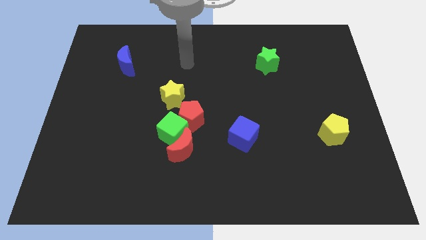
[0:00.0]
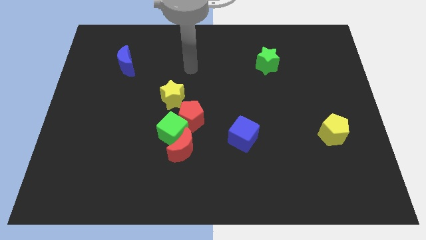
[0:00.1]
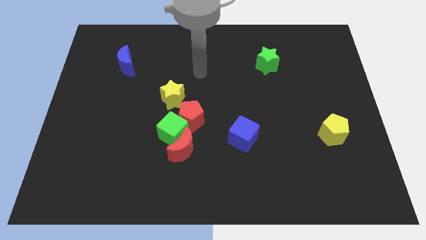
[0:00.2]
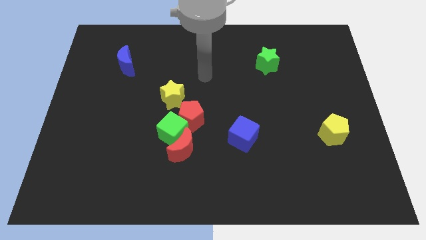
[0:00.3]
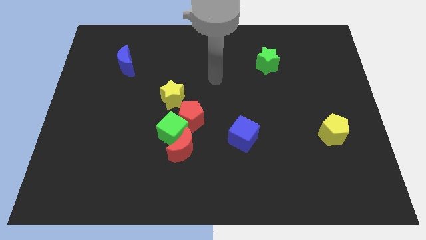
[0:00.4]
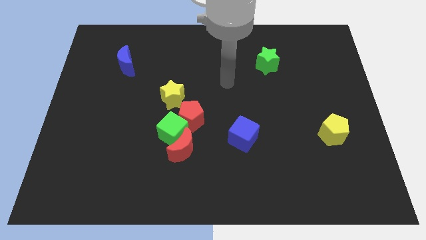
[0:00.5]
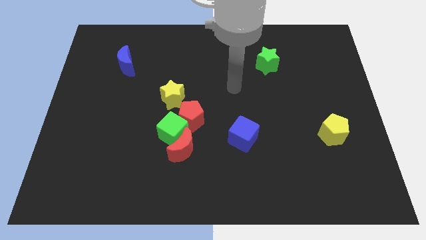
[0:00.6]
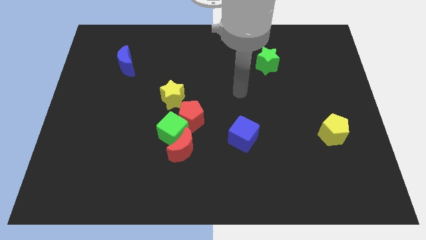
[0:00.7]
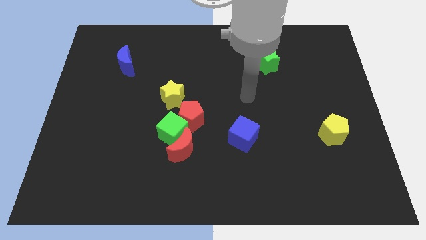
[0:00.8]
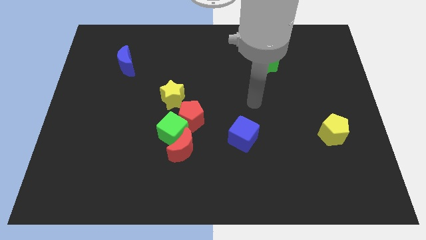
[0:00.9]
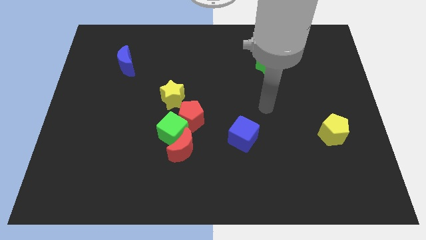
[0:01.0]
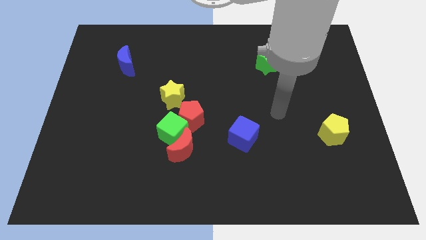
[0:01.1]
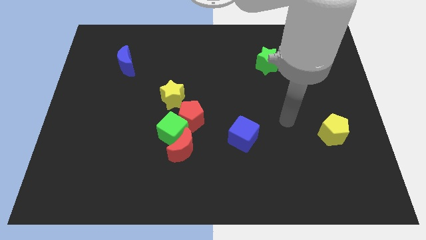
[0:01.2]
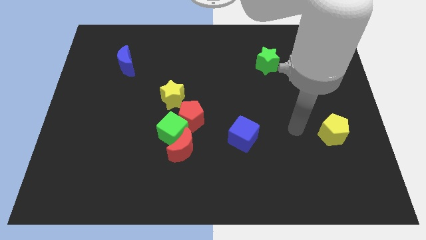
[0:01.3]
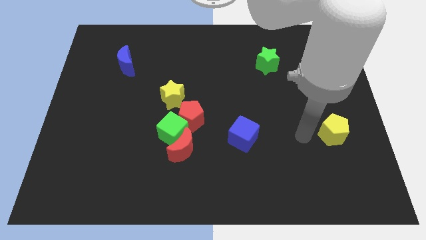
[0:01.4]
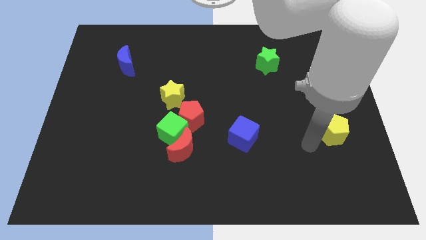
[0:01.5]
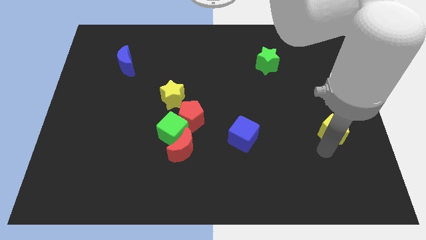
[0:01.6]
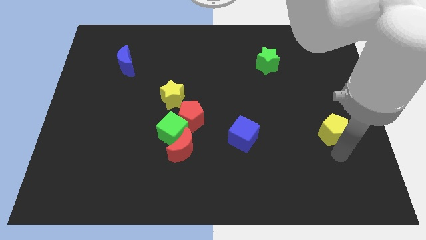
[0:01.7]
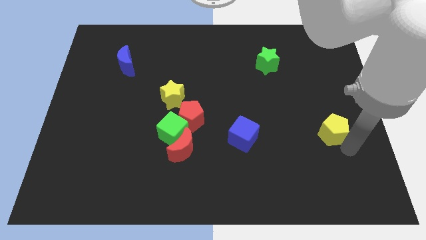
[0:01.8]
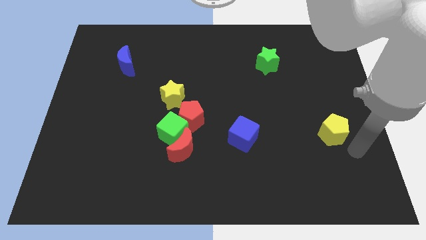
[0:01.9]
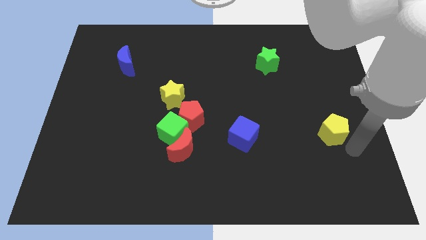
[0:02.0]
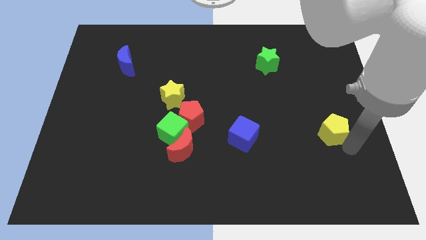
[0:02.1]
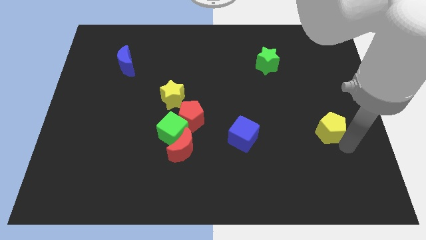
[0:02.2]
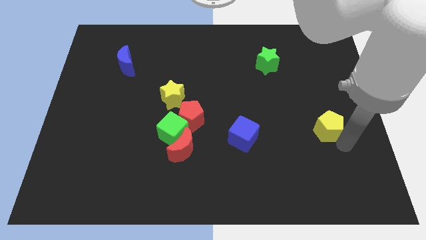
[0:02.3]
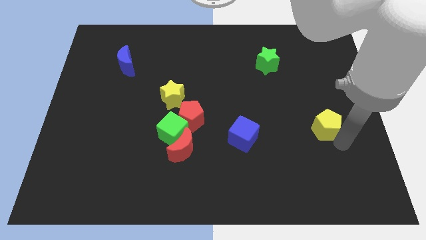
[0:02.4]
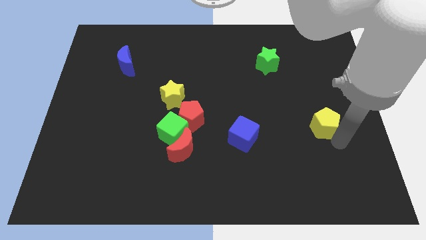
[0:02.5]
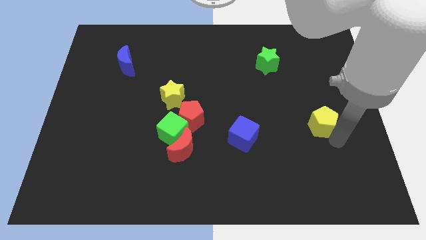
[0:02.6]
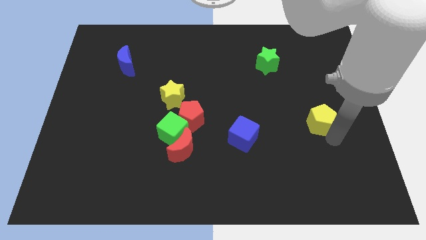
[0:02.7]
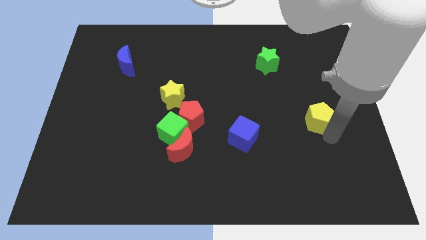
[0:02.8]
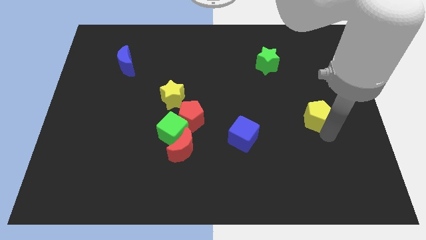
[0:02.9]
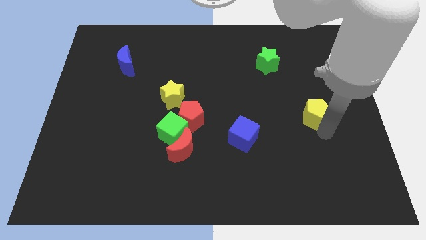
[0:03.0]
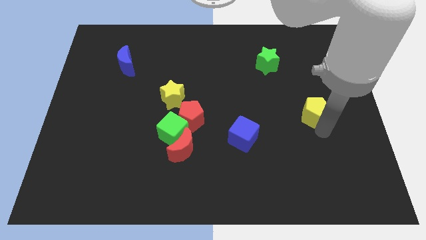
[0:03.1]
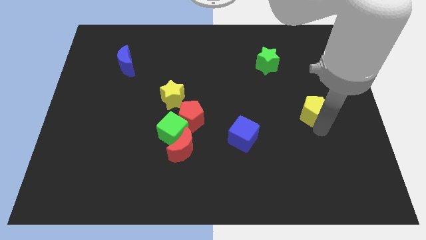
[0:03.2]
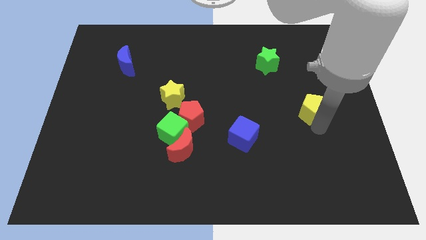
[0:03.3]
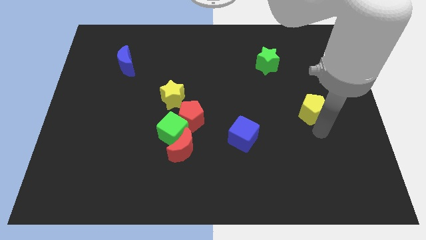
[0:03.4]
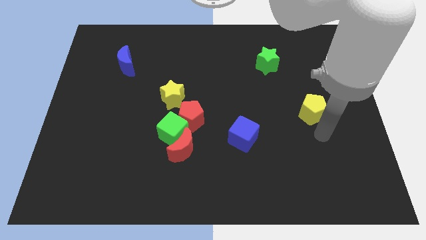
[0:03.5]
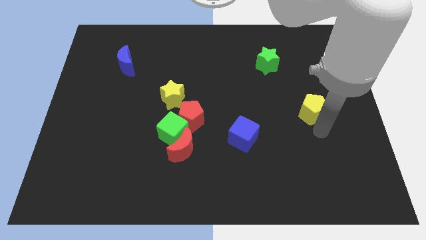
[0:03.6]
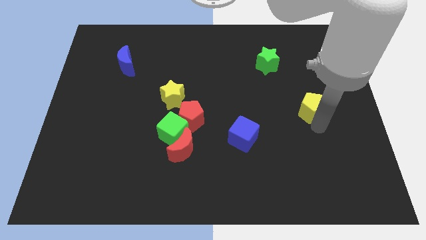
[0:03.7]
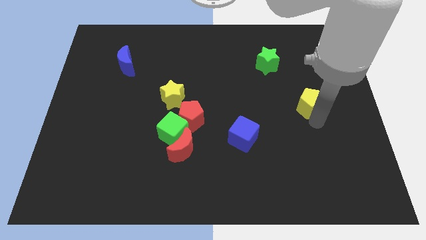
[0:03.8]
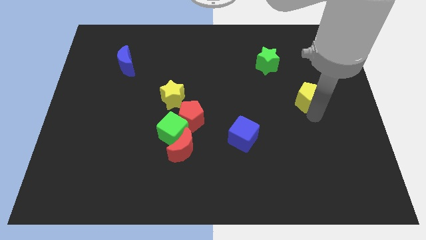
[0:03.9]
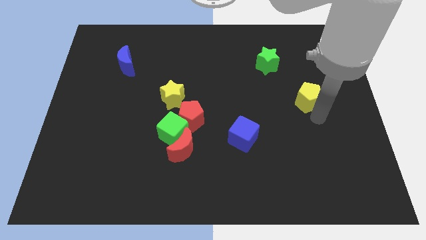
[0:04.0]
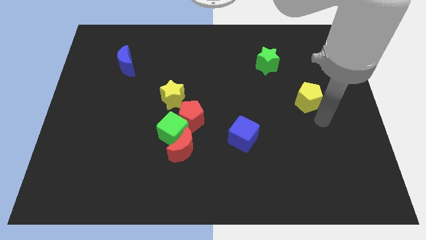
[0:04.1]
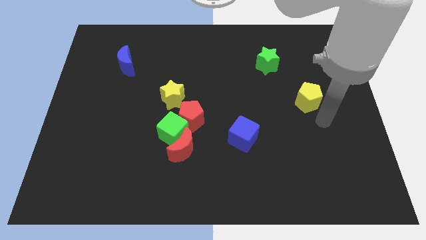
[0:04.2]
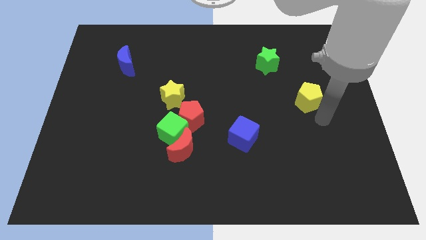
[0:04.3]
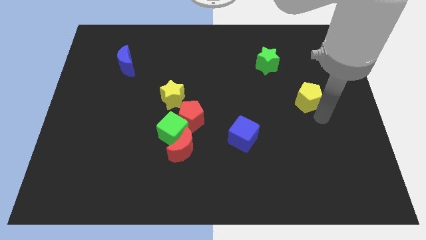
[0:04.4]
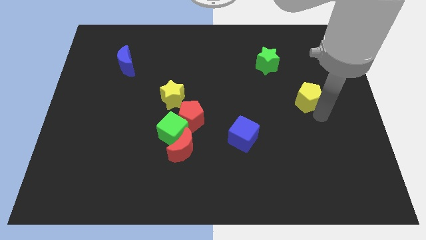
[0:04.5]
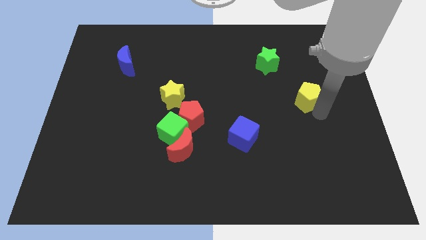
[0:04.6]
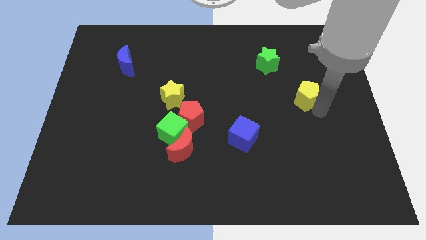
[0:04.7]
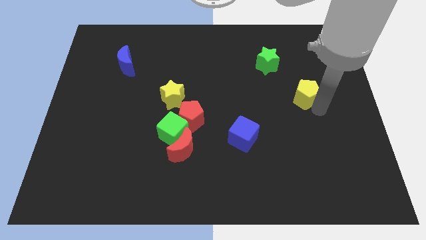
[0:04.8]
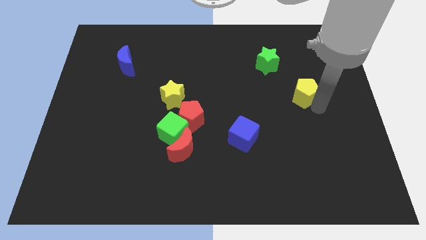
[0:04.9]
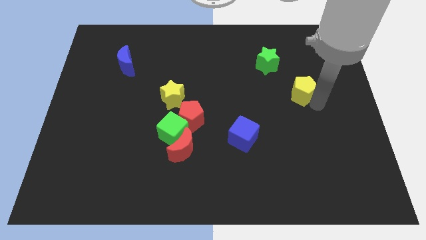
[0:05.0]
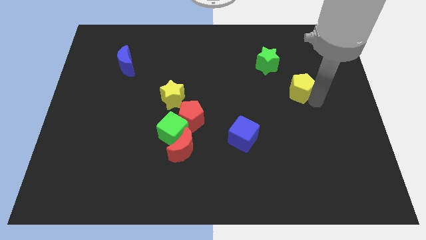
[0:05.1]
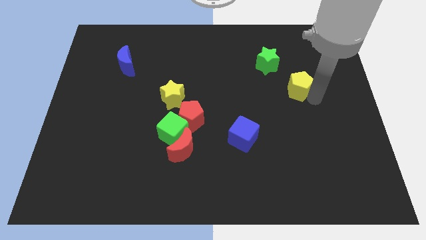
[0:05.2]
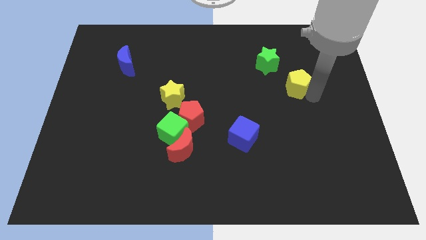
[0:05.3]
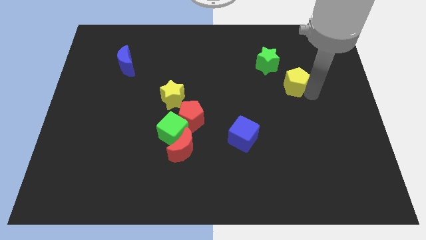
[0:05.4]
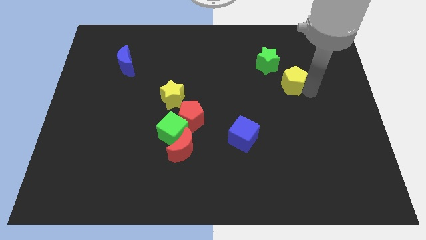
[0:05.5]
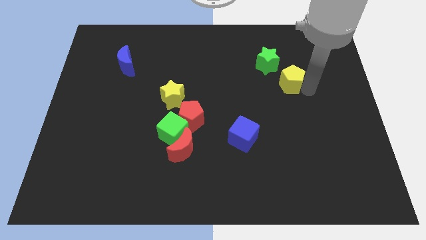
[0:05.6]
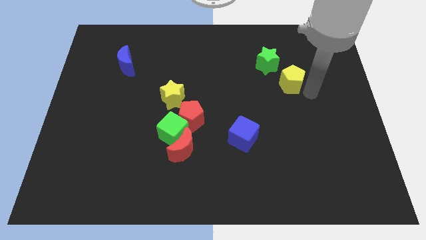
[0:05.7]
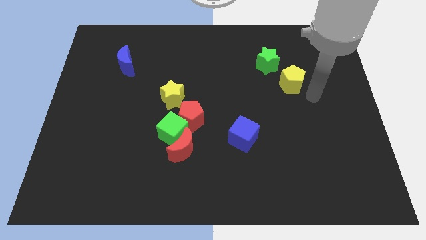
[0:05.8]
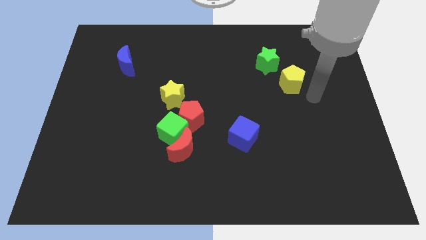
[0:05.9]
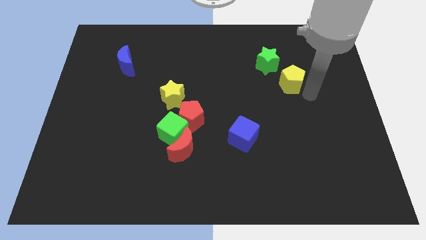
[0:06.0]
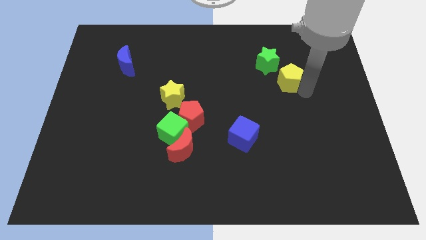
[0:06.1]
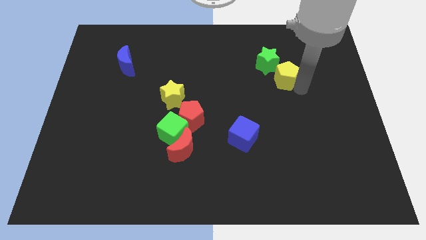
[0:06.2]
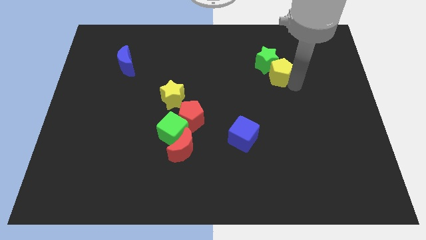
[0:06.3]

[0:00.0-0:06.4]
slide the yellow pentagon towards the green star
